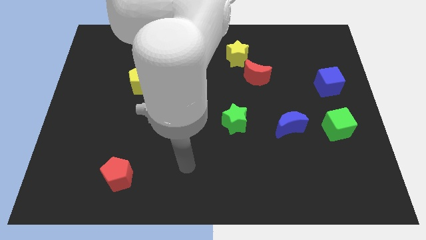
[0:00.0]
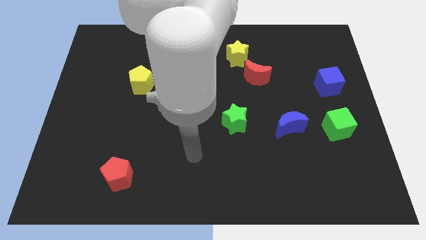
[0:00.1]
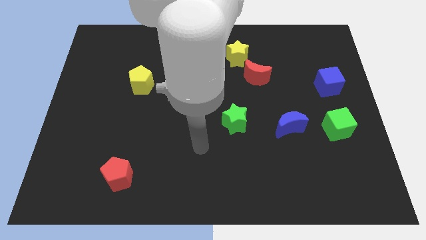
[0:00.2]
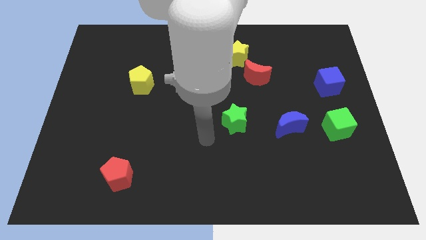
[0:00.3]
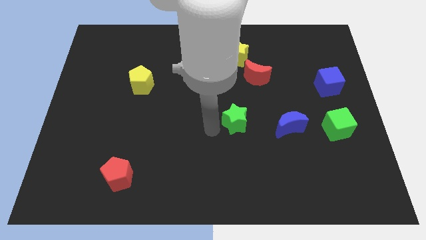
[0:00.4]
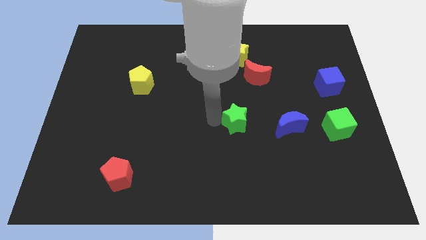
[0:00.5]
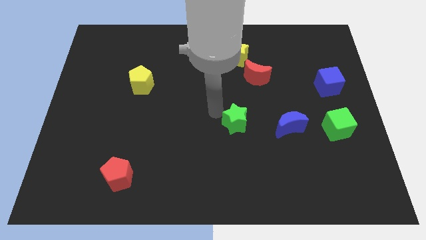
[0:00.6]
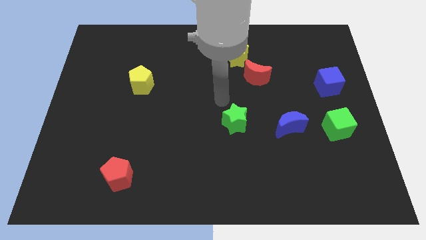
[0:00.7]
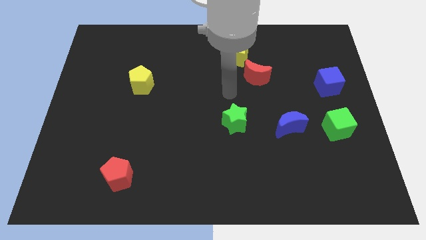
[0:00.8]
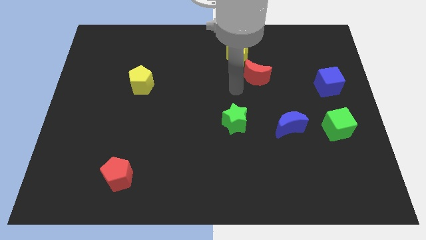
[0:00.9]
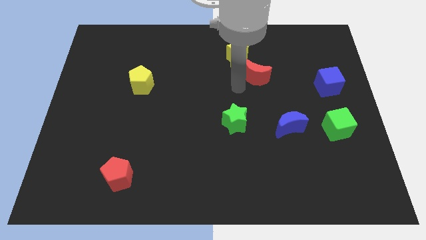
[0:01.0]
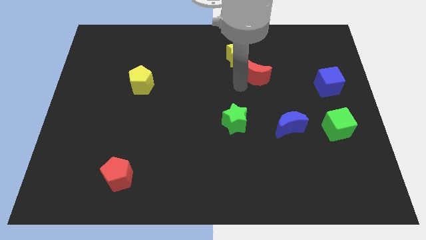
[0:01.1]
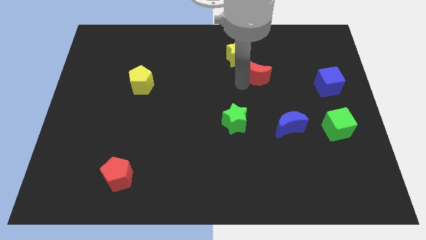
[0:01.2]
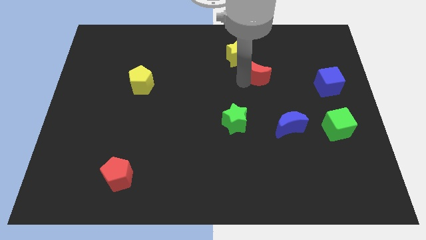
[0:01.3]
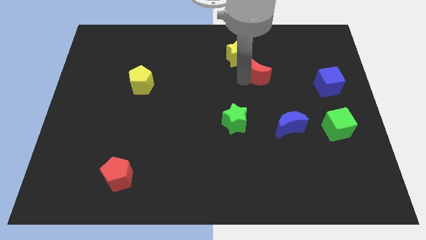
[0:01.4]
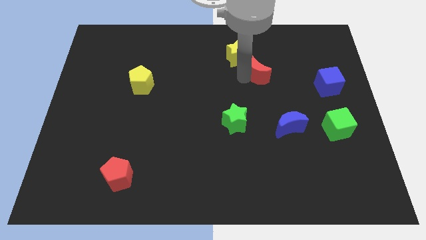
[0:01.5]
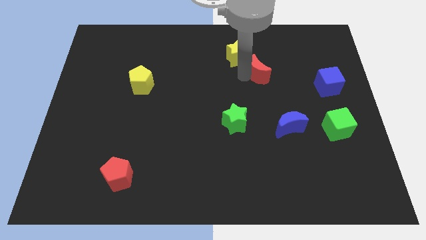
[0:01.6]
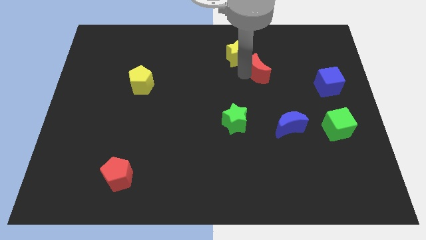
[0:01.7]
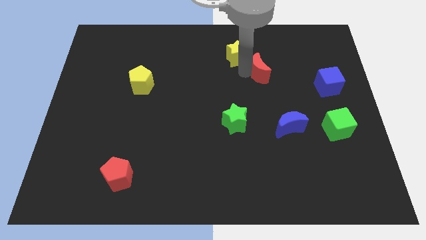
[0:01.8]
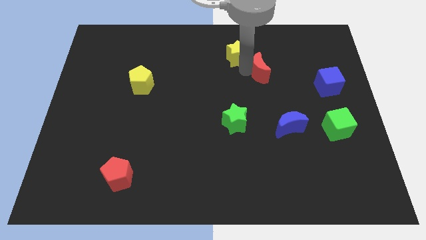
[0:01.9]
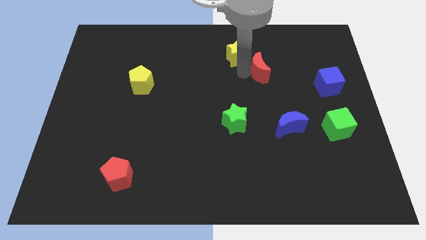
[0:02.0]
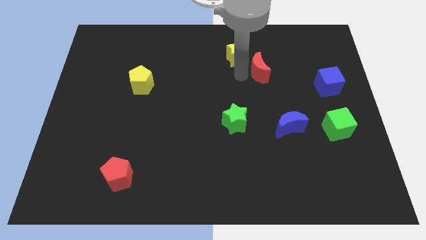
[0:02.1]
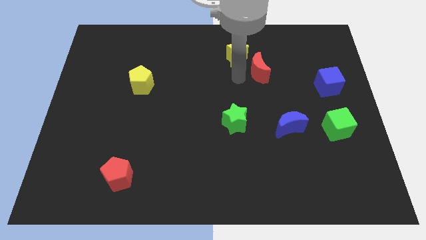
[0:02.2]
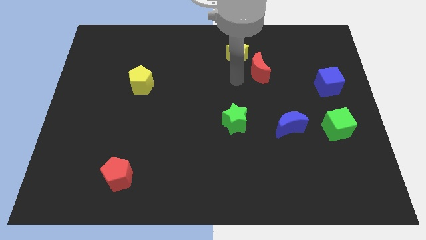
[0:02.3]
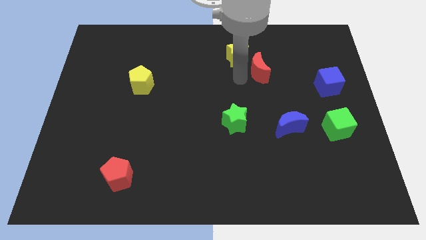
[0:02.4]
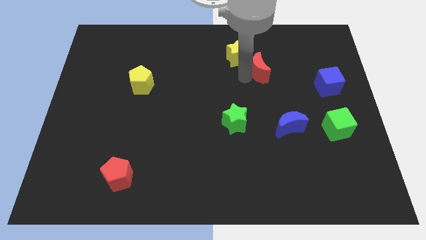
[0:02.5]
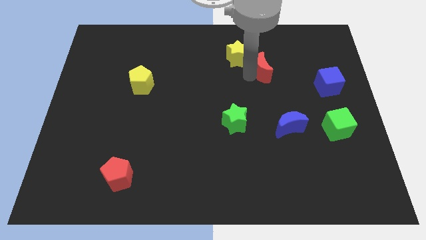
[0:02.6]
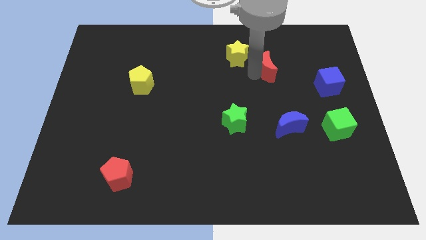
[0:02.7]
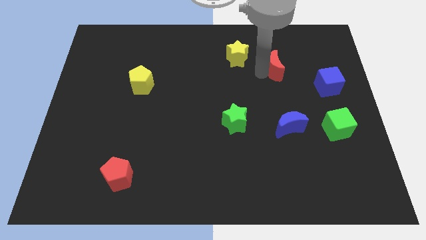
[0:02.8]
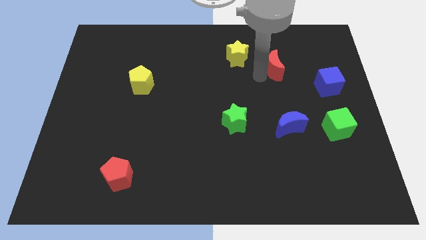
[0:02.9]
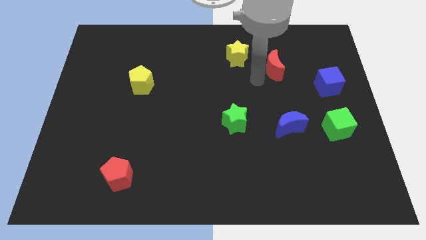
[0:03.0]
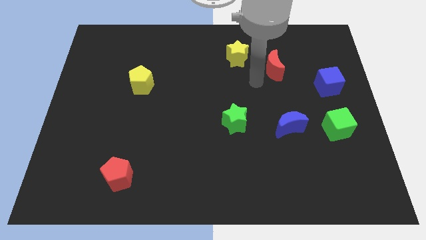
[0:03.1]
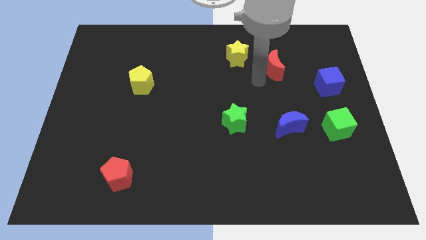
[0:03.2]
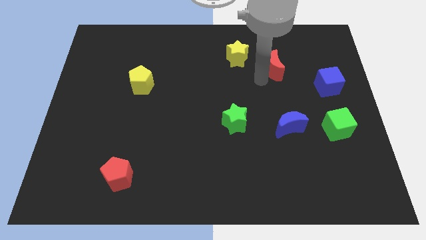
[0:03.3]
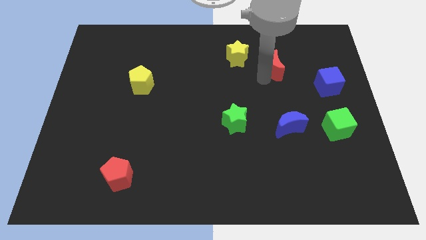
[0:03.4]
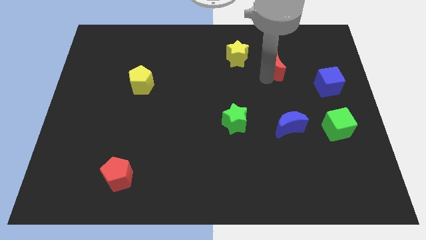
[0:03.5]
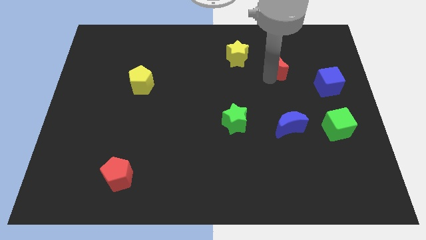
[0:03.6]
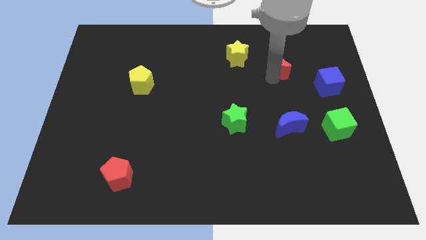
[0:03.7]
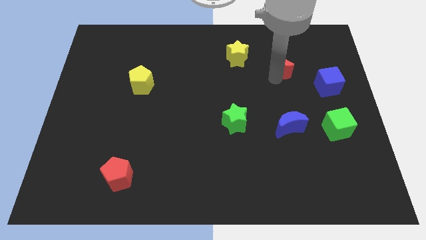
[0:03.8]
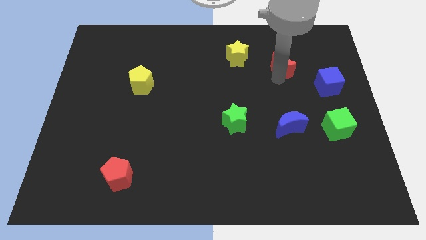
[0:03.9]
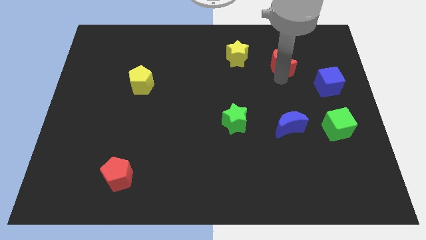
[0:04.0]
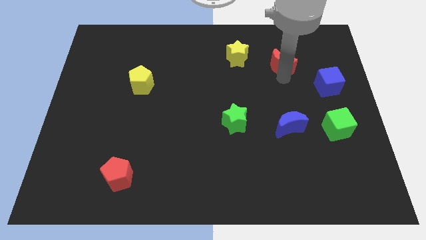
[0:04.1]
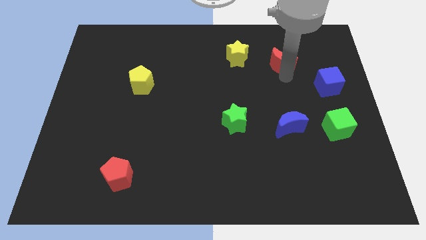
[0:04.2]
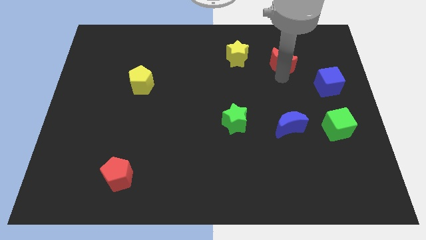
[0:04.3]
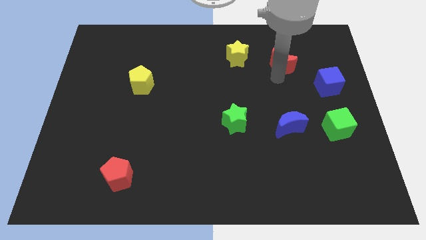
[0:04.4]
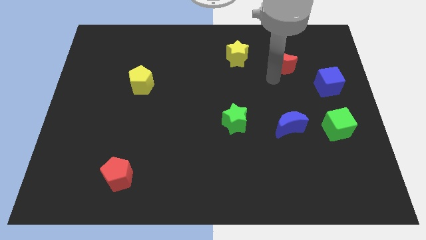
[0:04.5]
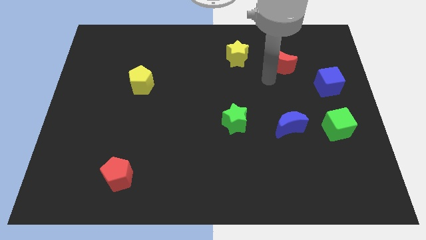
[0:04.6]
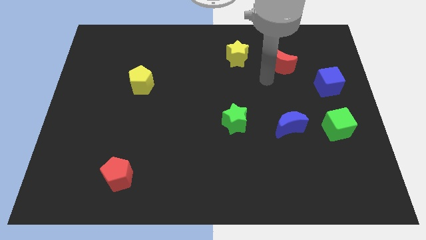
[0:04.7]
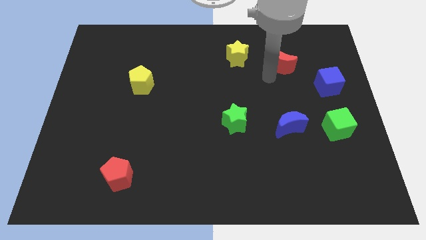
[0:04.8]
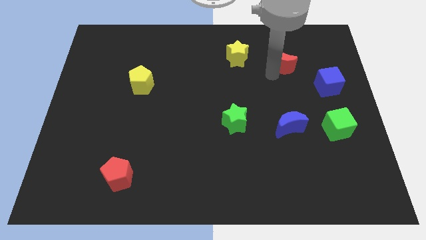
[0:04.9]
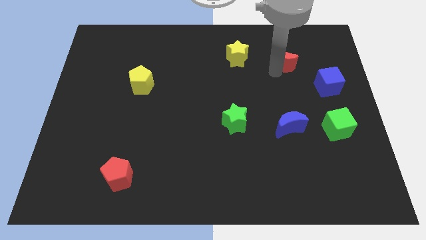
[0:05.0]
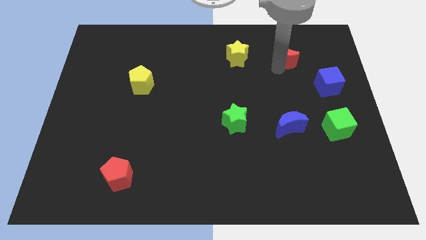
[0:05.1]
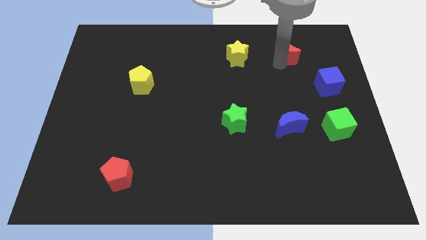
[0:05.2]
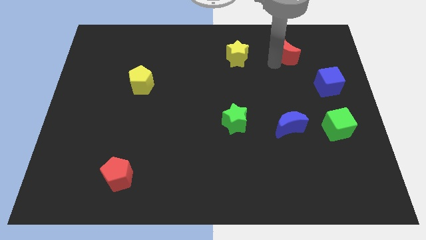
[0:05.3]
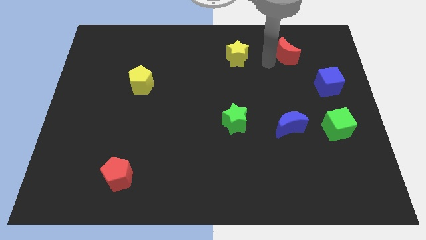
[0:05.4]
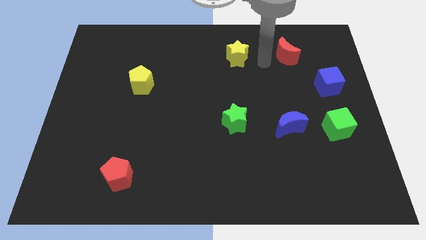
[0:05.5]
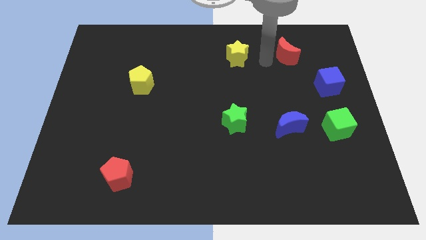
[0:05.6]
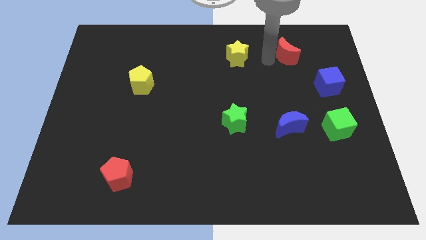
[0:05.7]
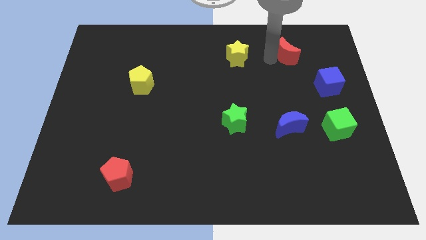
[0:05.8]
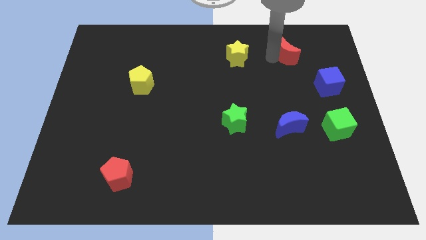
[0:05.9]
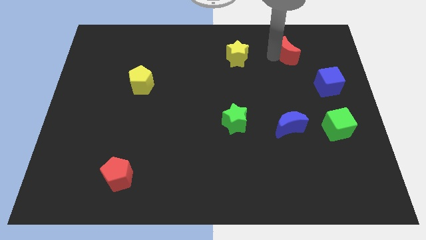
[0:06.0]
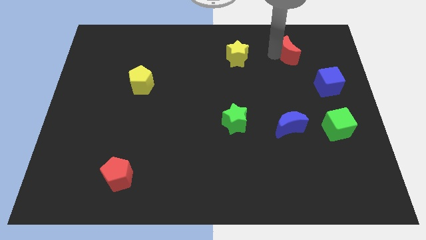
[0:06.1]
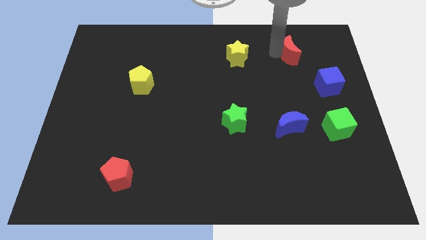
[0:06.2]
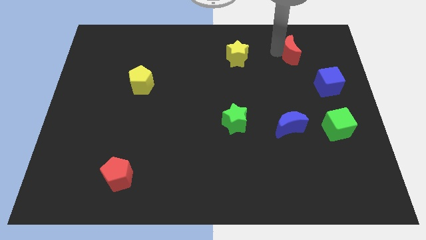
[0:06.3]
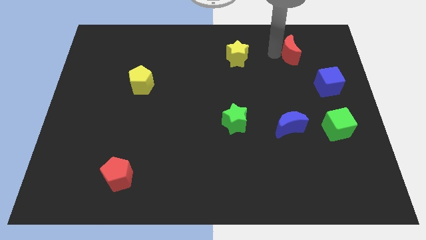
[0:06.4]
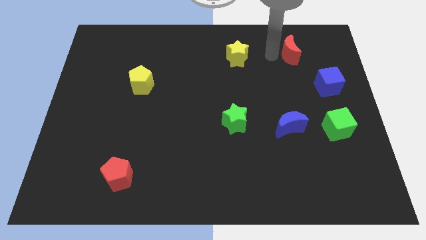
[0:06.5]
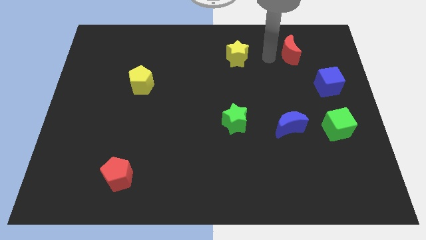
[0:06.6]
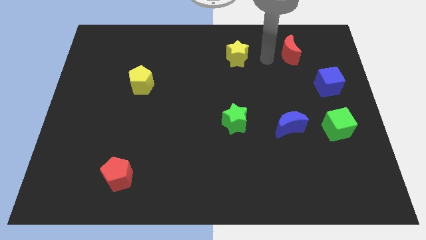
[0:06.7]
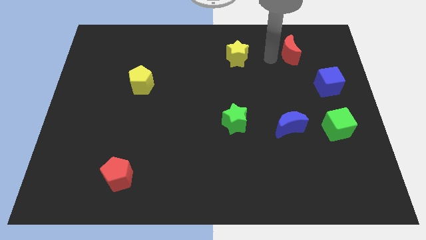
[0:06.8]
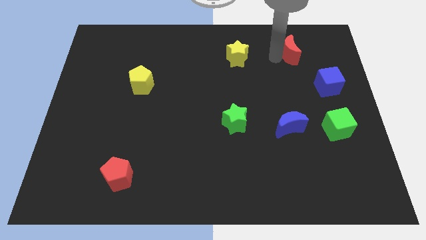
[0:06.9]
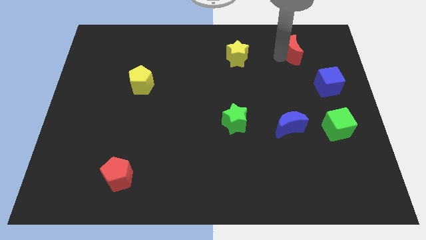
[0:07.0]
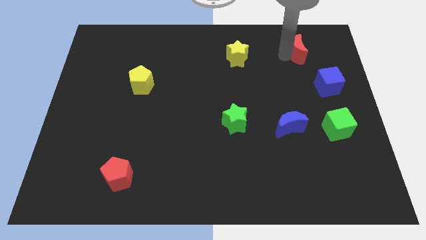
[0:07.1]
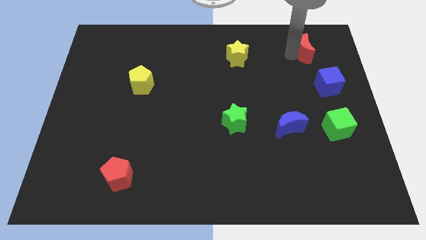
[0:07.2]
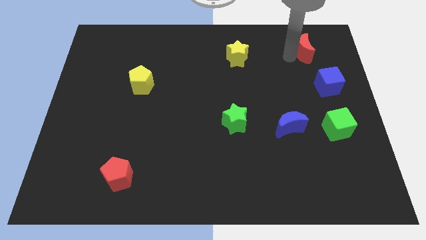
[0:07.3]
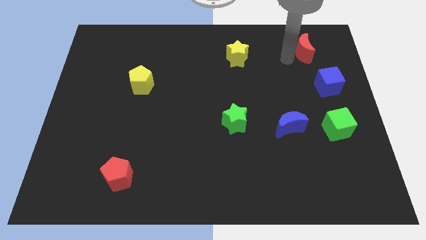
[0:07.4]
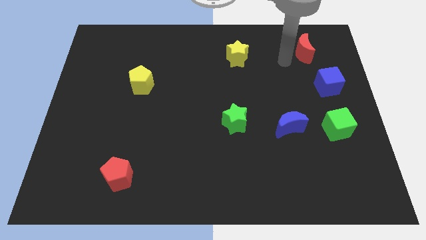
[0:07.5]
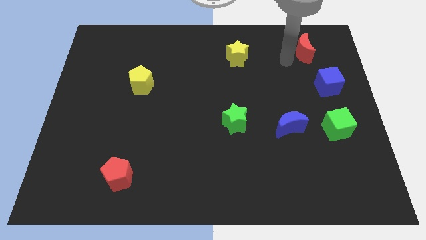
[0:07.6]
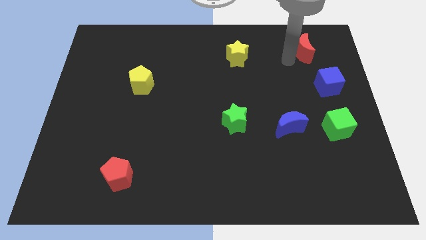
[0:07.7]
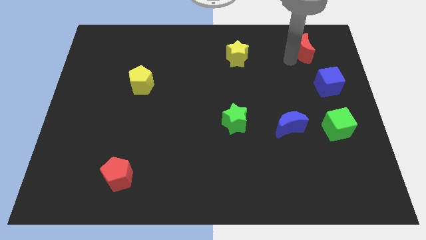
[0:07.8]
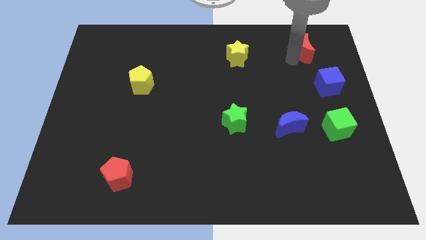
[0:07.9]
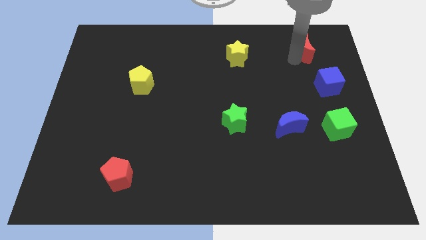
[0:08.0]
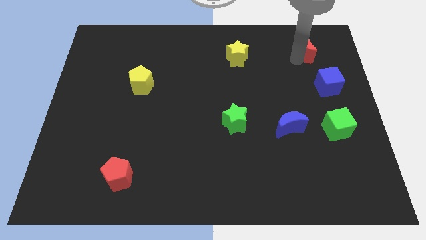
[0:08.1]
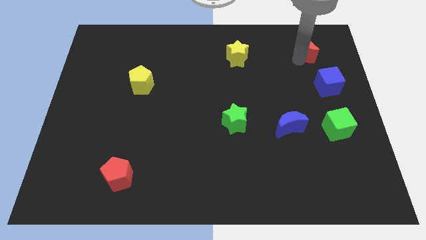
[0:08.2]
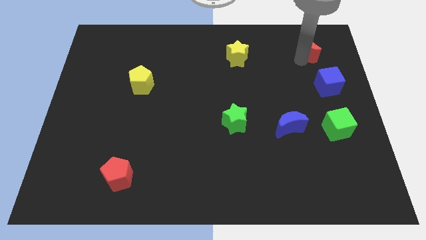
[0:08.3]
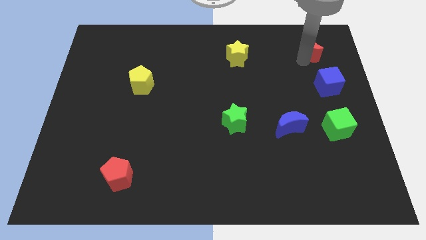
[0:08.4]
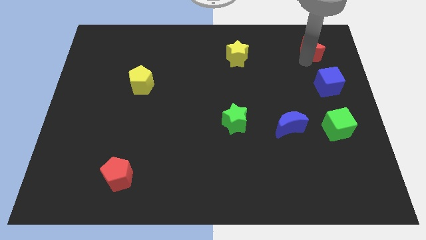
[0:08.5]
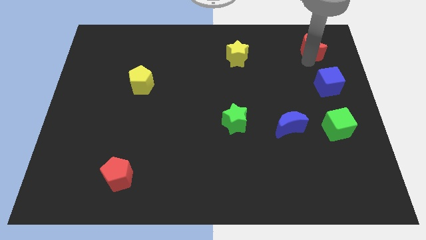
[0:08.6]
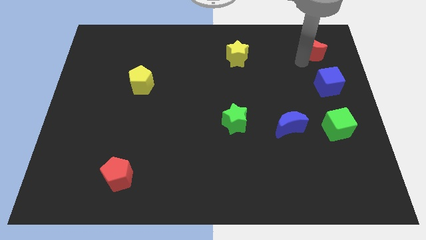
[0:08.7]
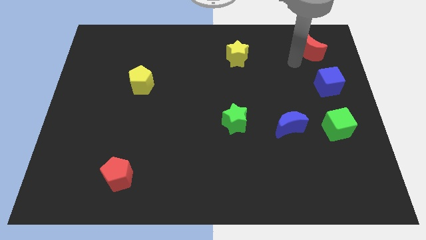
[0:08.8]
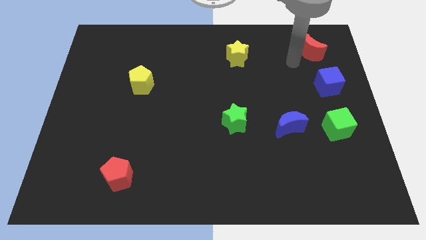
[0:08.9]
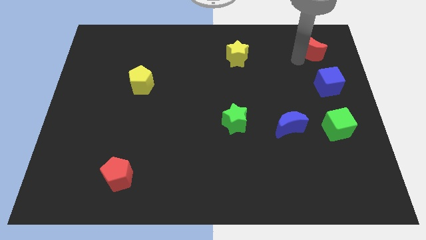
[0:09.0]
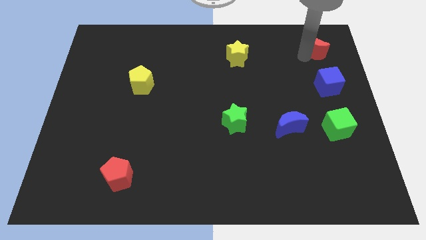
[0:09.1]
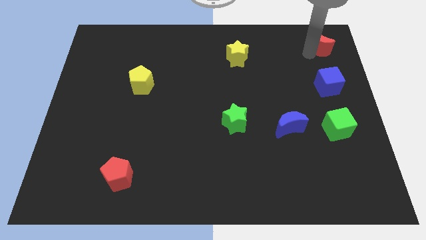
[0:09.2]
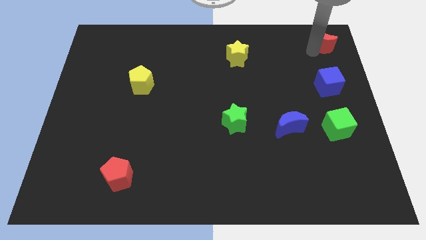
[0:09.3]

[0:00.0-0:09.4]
put the red moon to the top right of the board
